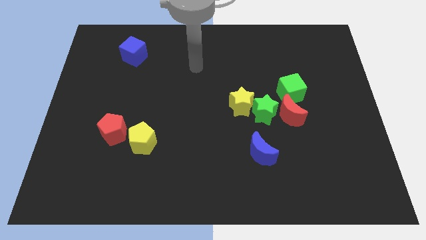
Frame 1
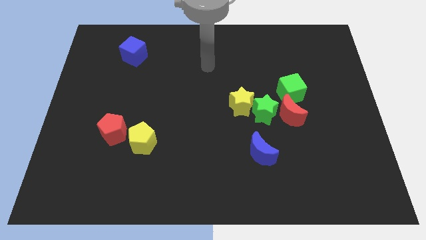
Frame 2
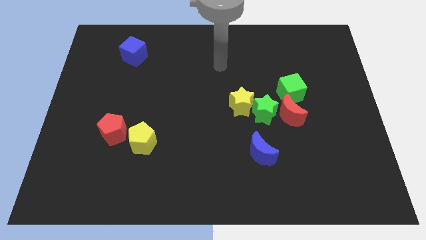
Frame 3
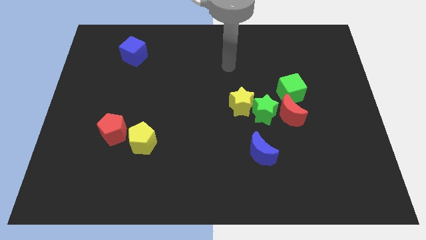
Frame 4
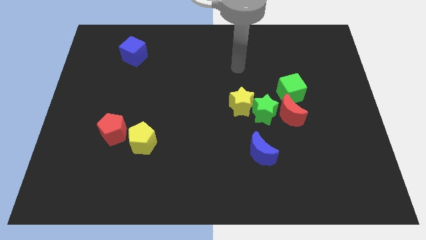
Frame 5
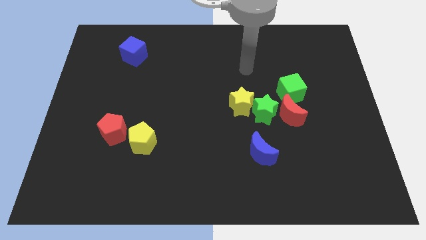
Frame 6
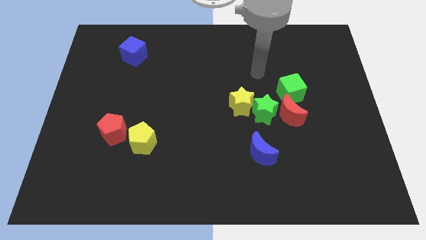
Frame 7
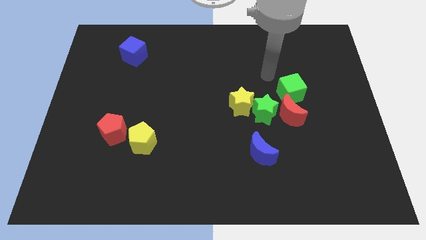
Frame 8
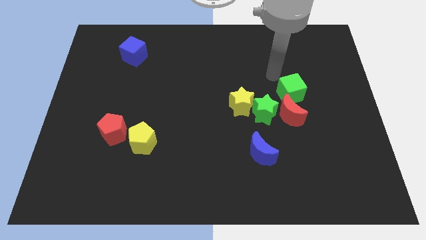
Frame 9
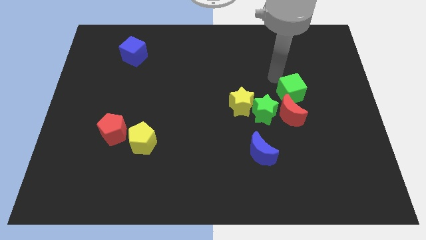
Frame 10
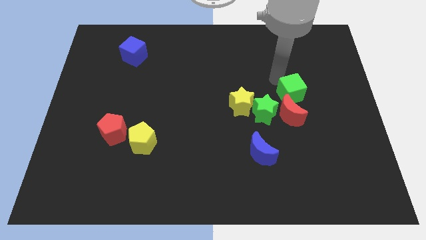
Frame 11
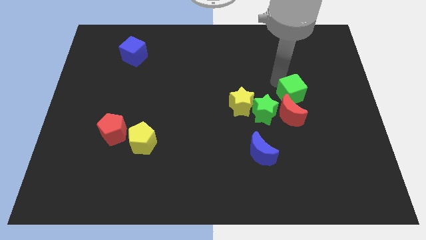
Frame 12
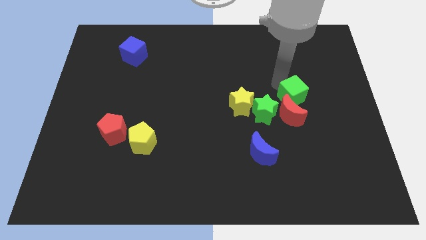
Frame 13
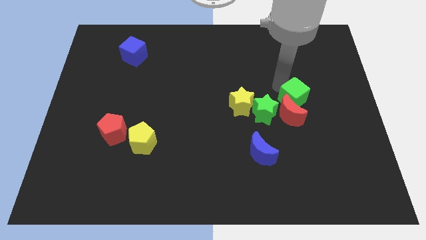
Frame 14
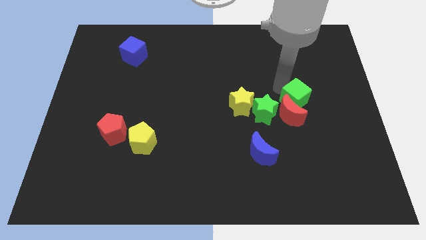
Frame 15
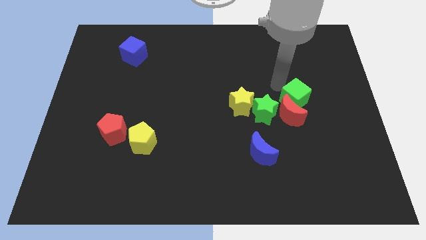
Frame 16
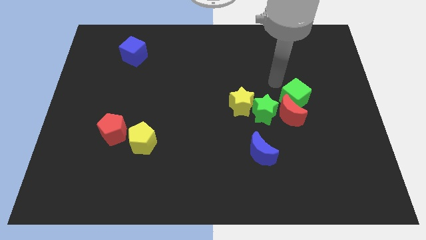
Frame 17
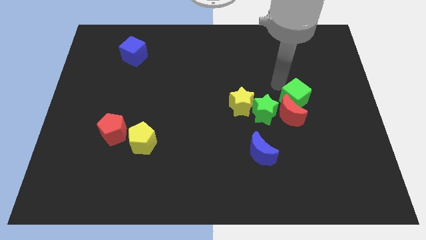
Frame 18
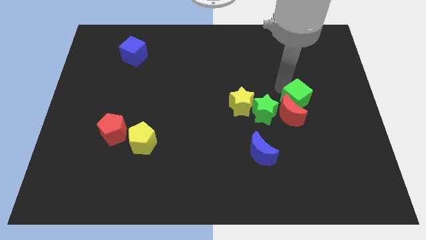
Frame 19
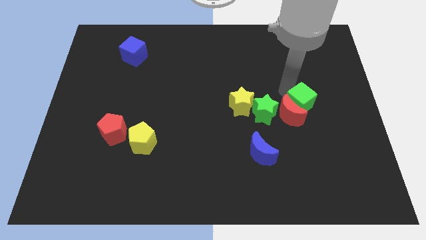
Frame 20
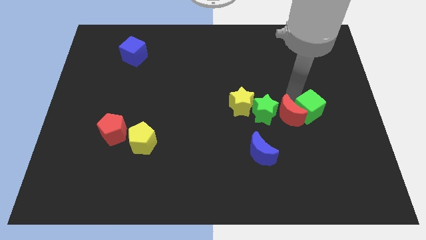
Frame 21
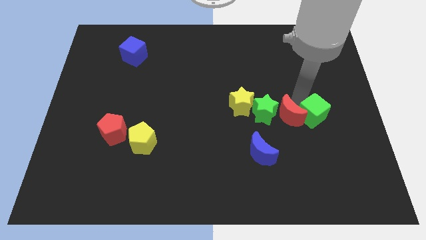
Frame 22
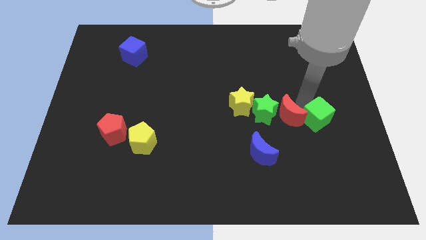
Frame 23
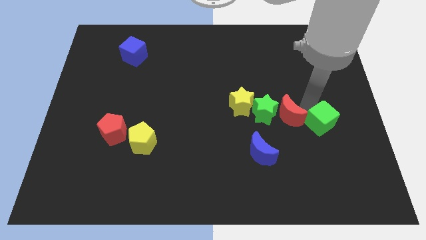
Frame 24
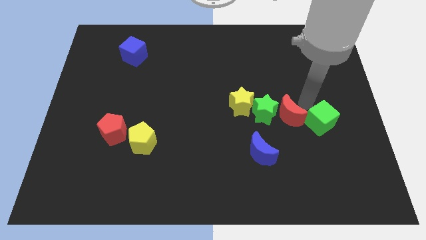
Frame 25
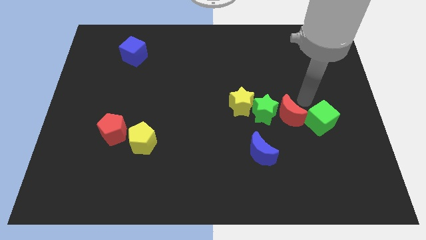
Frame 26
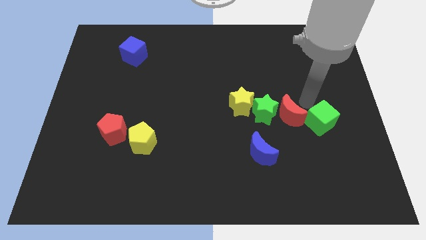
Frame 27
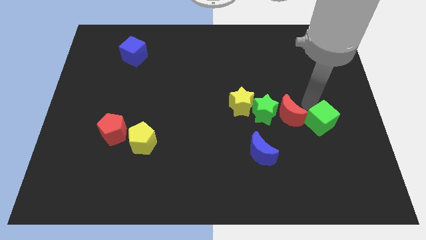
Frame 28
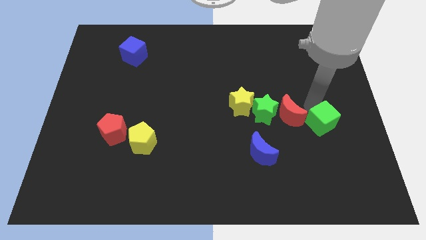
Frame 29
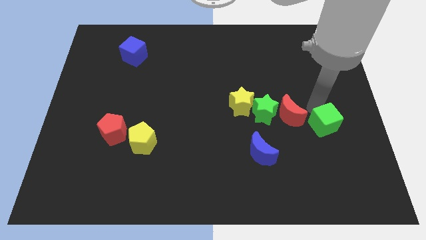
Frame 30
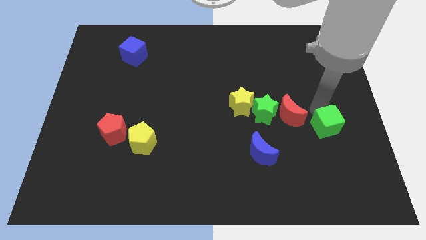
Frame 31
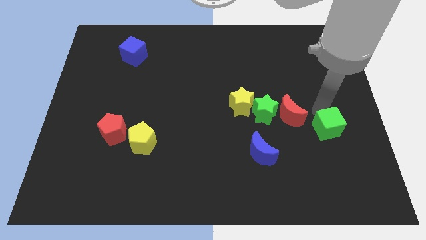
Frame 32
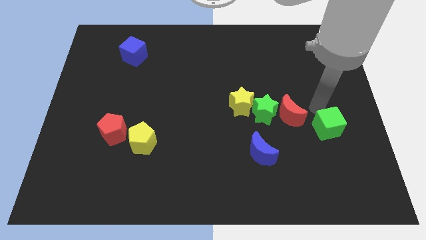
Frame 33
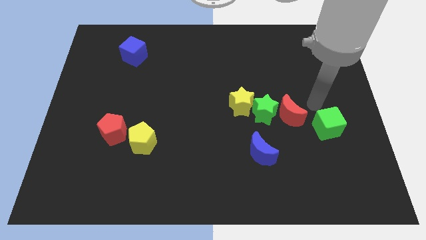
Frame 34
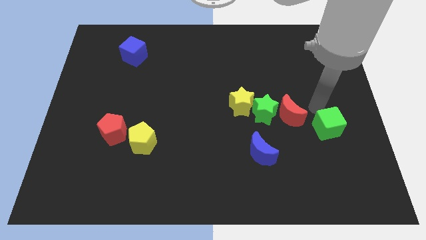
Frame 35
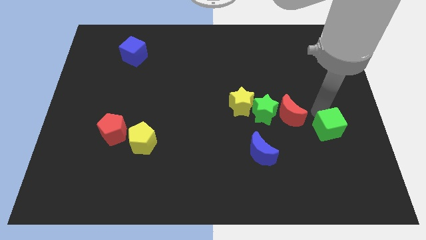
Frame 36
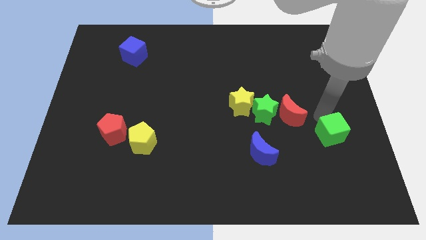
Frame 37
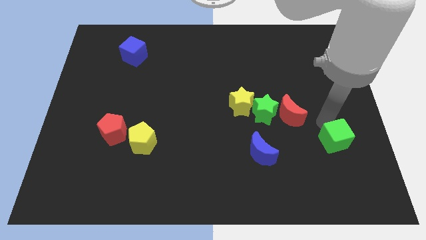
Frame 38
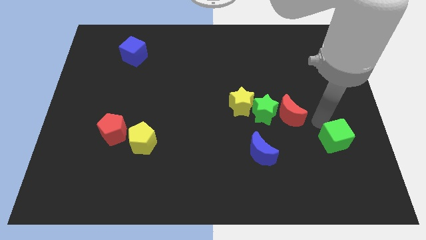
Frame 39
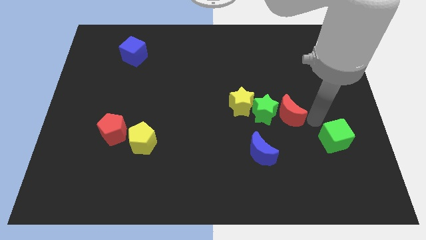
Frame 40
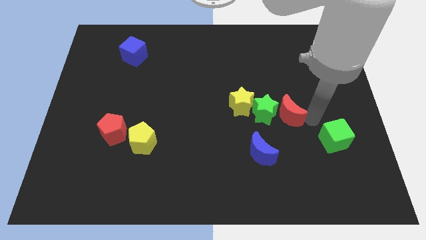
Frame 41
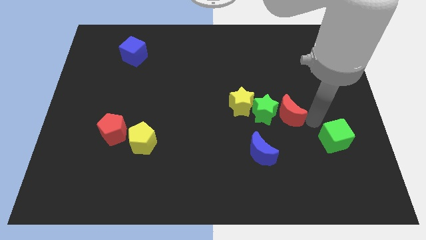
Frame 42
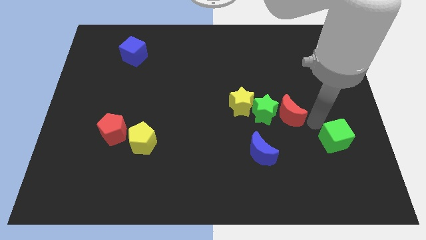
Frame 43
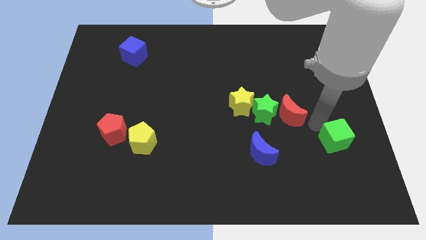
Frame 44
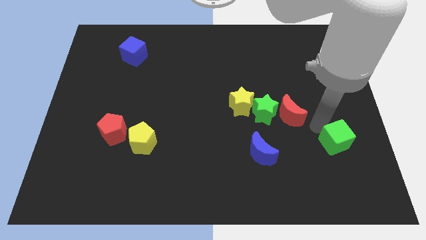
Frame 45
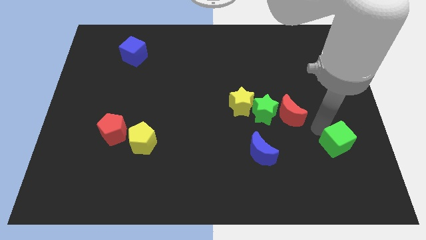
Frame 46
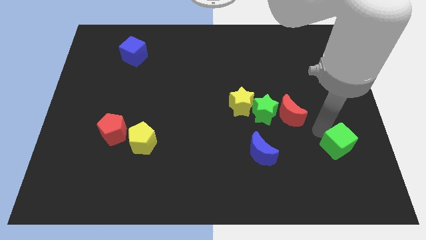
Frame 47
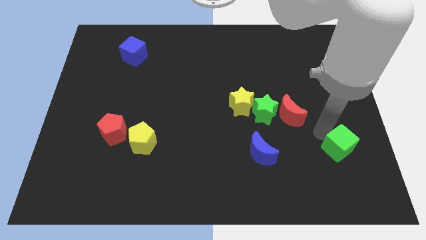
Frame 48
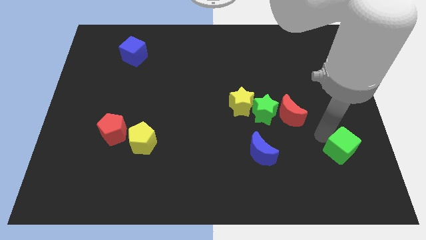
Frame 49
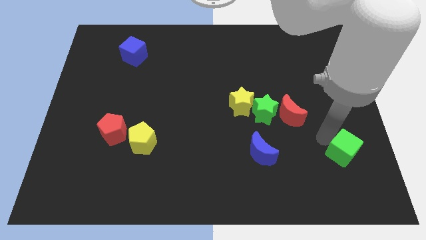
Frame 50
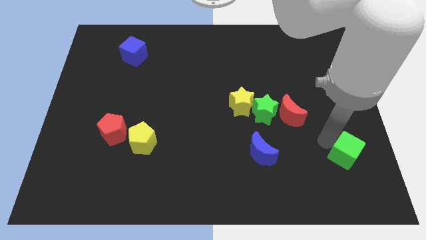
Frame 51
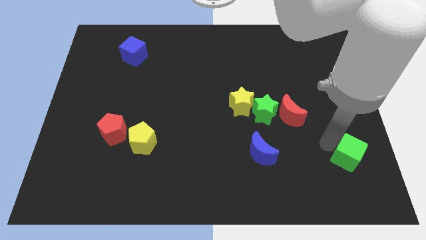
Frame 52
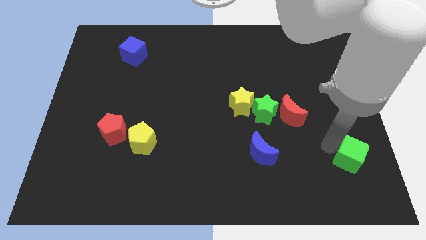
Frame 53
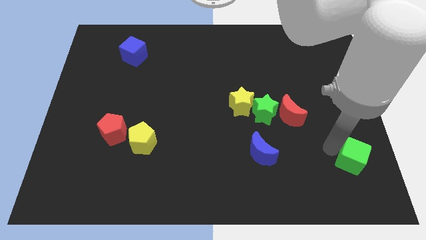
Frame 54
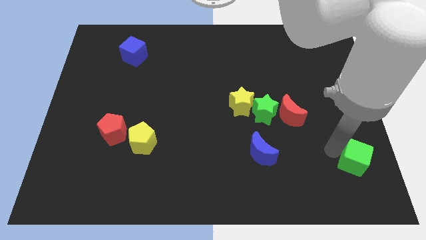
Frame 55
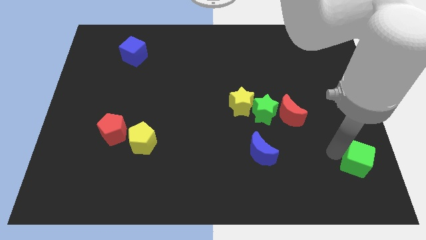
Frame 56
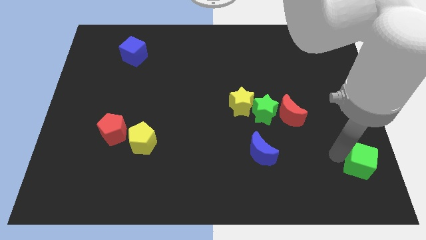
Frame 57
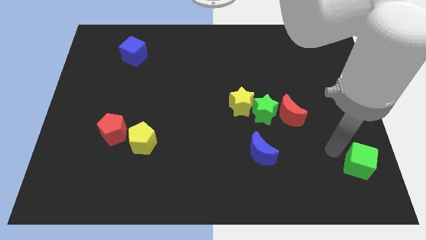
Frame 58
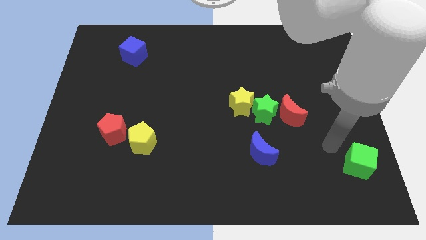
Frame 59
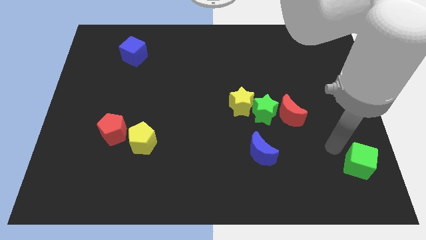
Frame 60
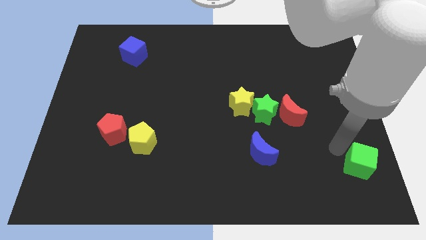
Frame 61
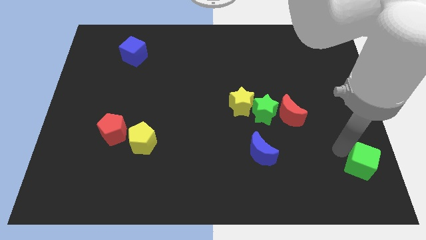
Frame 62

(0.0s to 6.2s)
slide the green cube to the bottom right of the board

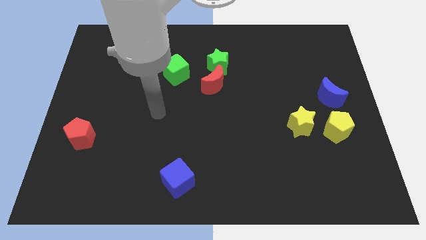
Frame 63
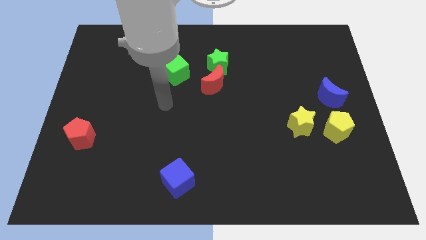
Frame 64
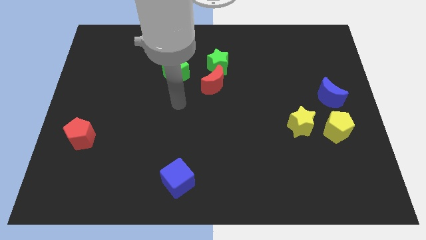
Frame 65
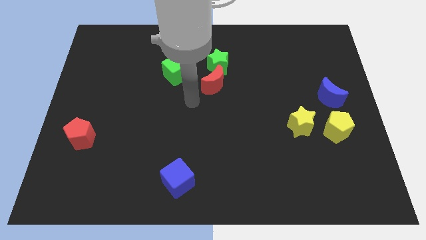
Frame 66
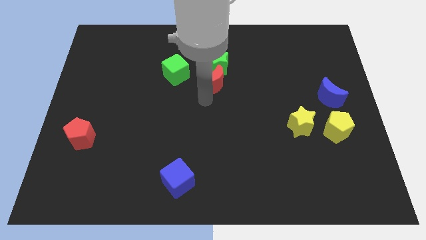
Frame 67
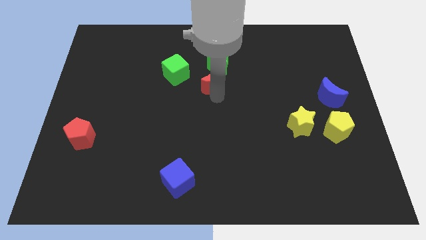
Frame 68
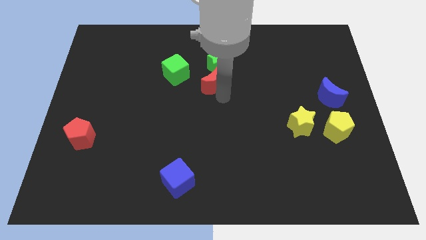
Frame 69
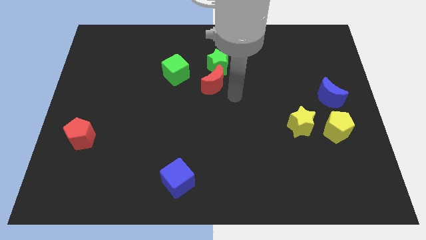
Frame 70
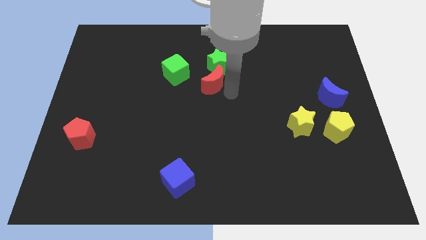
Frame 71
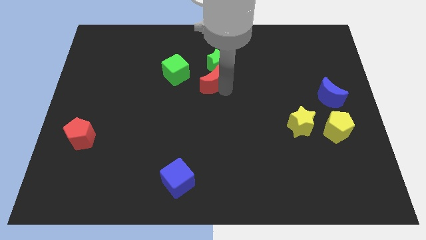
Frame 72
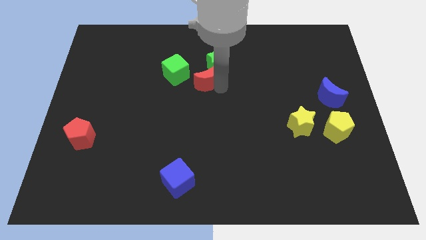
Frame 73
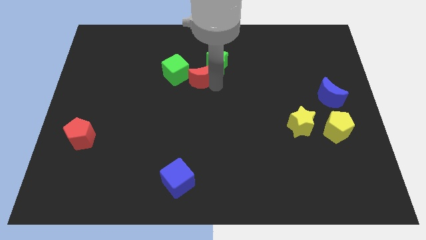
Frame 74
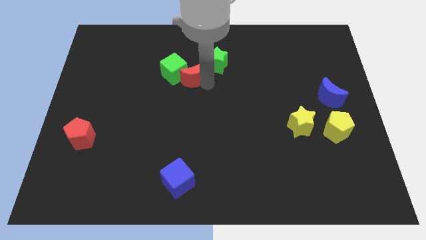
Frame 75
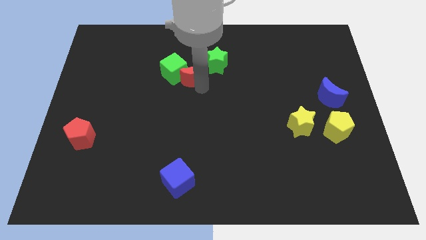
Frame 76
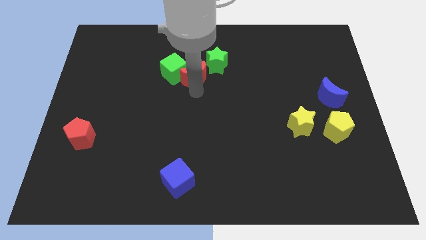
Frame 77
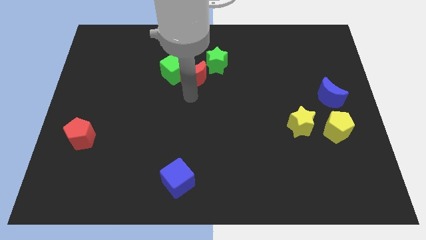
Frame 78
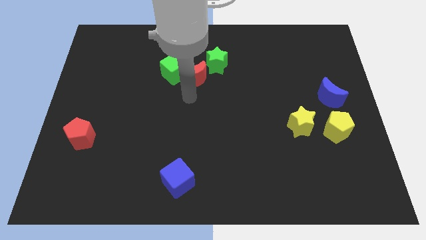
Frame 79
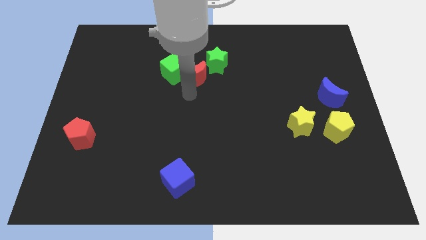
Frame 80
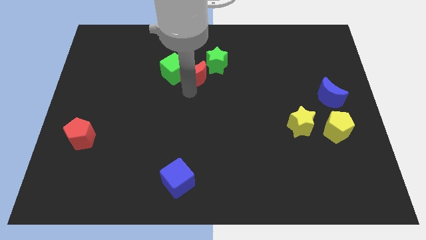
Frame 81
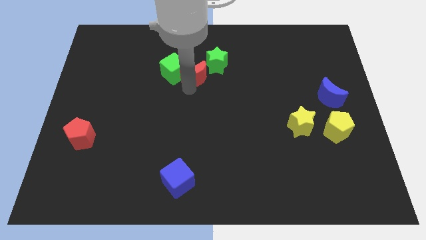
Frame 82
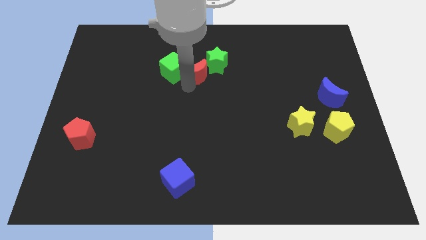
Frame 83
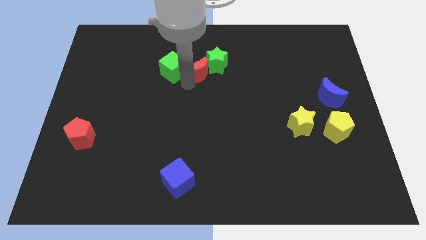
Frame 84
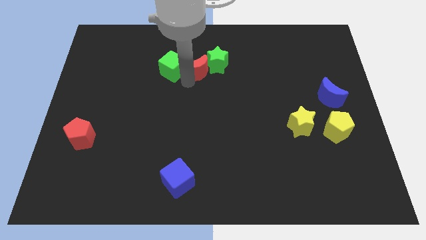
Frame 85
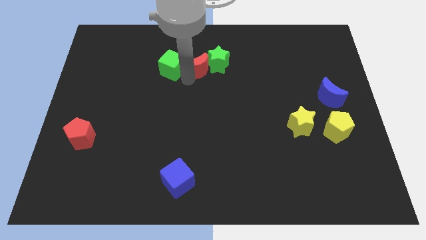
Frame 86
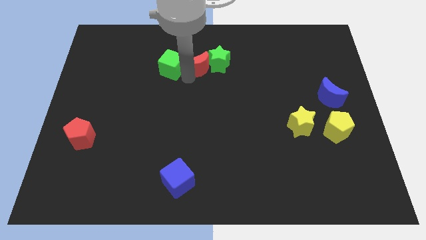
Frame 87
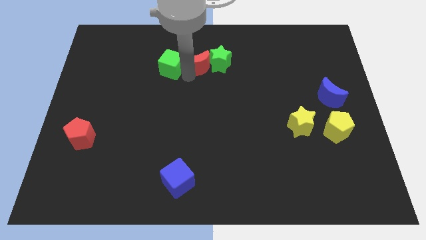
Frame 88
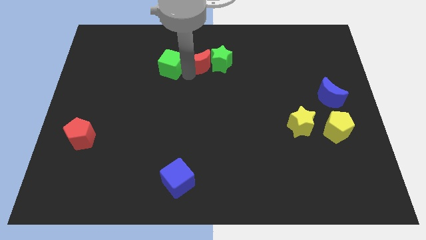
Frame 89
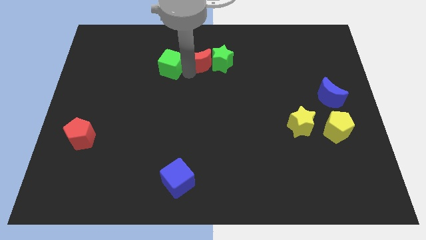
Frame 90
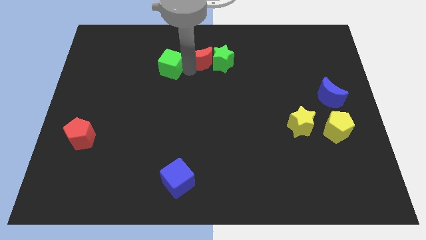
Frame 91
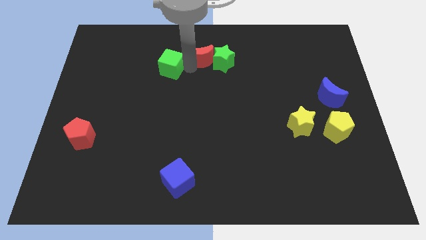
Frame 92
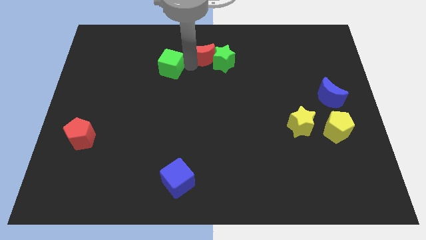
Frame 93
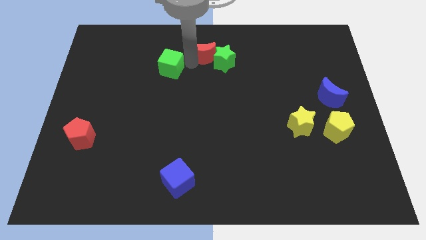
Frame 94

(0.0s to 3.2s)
slide the red moon to the towards your base
